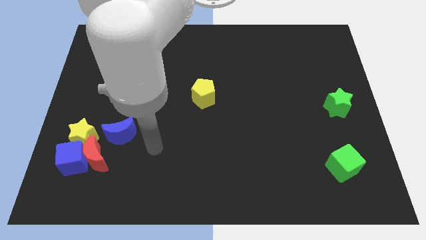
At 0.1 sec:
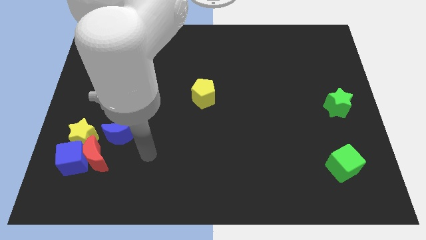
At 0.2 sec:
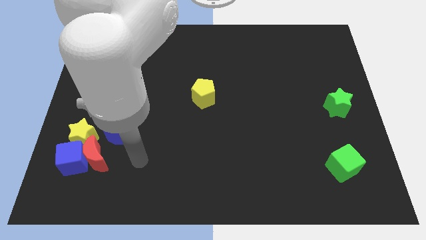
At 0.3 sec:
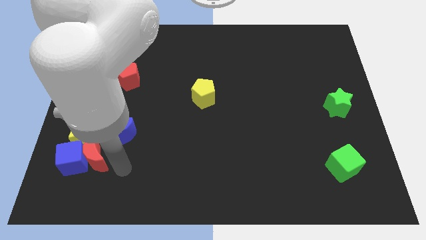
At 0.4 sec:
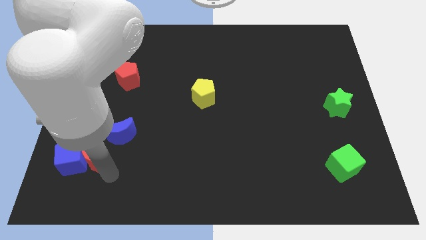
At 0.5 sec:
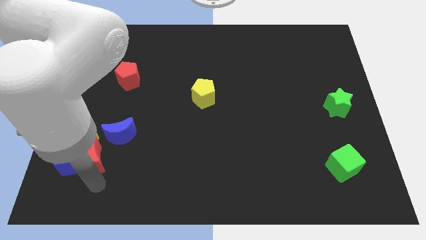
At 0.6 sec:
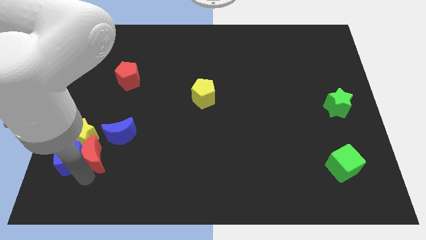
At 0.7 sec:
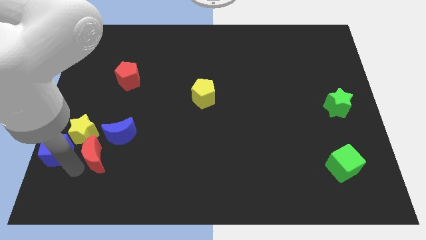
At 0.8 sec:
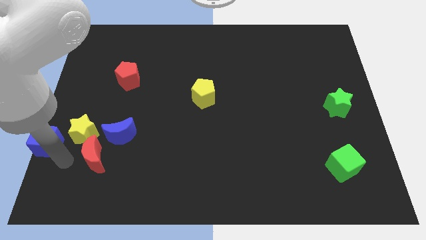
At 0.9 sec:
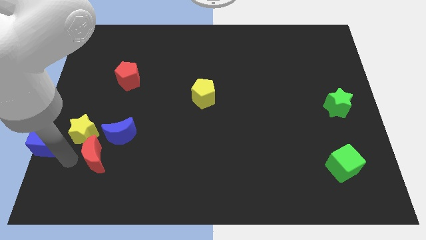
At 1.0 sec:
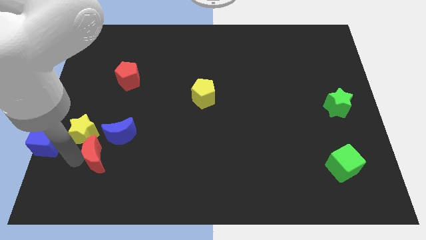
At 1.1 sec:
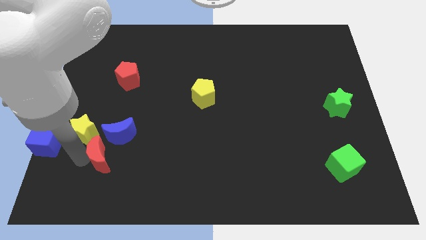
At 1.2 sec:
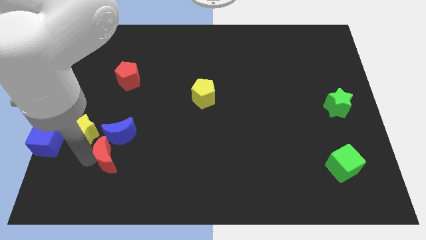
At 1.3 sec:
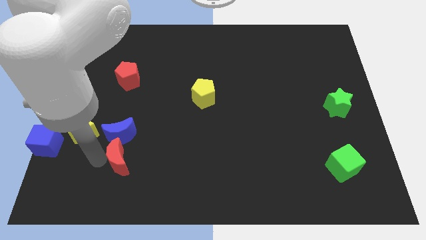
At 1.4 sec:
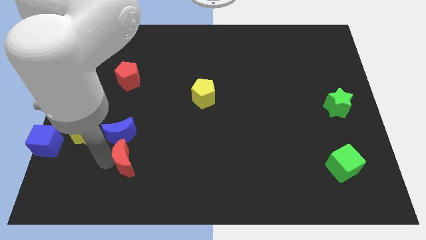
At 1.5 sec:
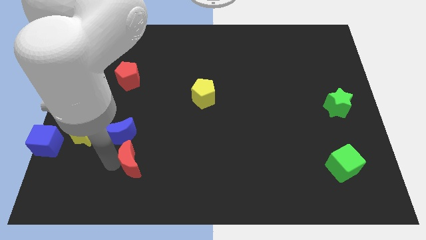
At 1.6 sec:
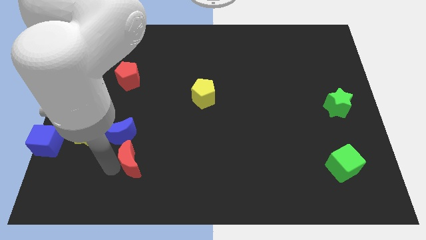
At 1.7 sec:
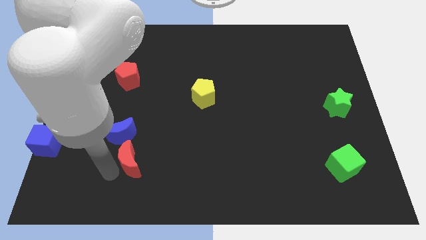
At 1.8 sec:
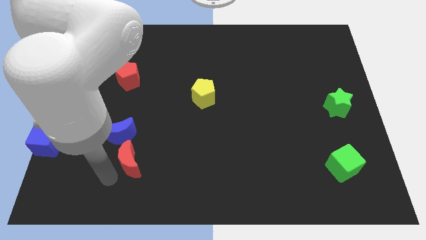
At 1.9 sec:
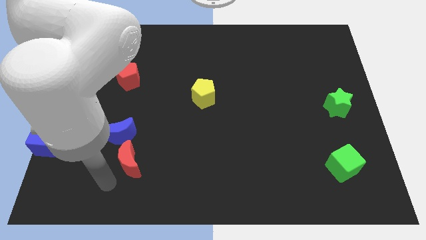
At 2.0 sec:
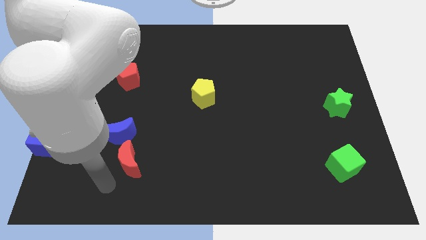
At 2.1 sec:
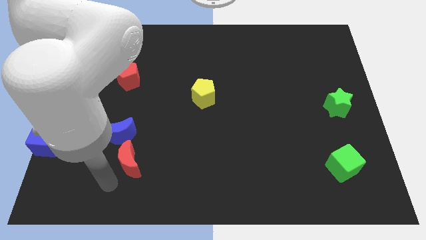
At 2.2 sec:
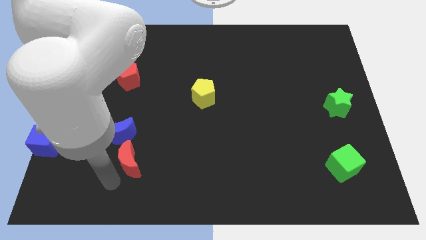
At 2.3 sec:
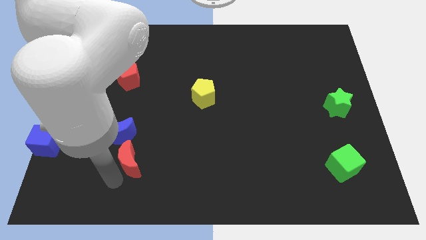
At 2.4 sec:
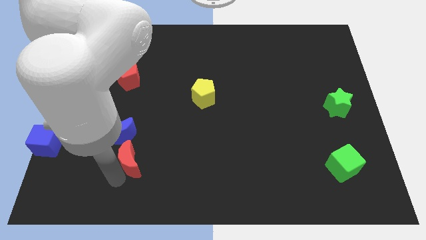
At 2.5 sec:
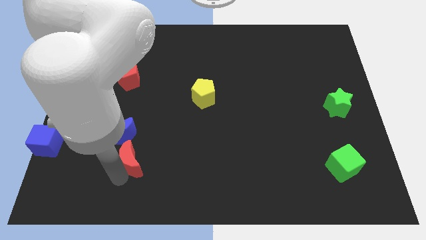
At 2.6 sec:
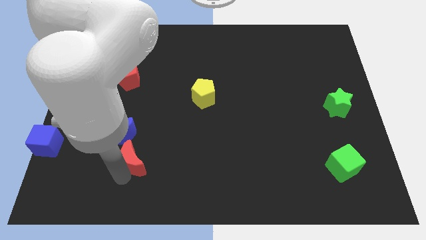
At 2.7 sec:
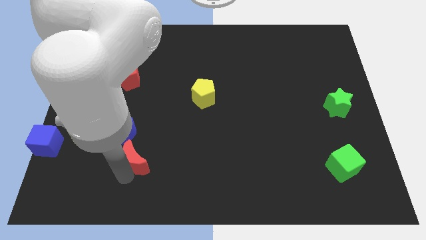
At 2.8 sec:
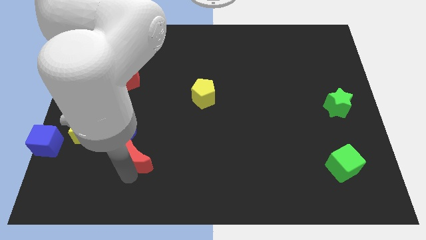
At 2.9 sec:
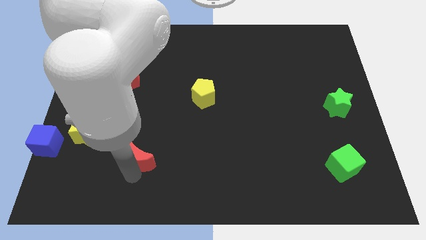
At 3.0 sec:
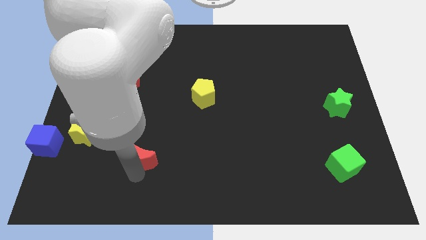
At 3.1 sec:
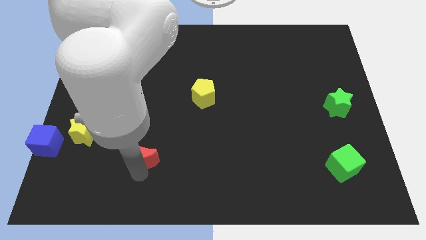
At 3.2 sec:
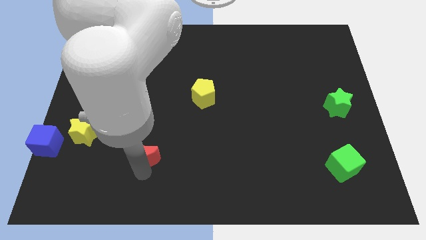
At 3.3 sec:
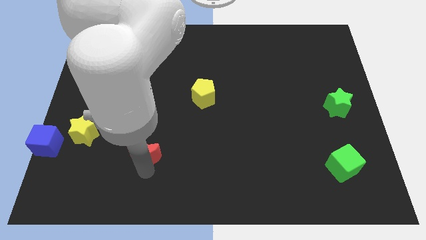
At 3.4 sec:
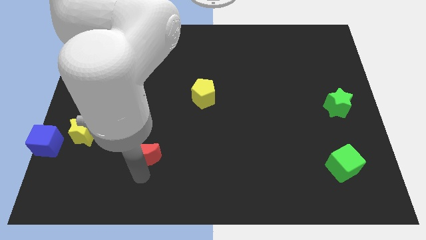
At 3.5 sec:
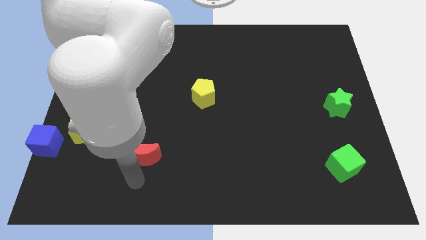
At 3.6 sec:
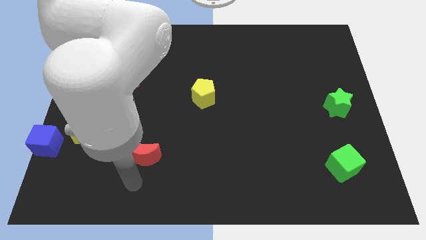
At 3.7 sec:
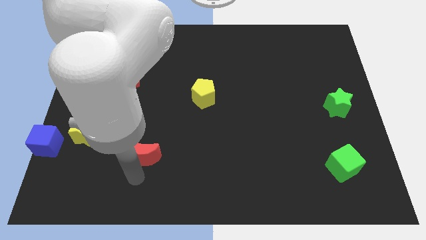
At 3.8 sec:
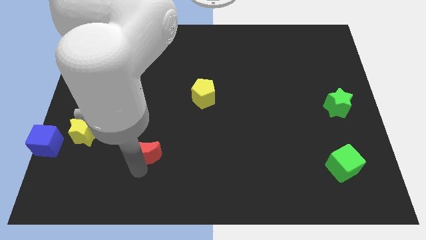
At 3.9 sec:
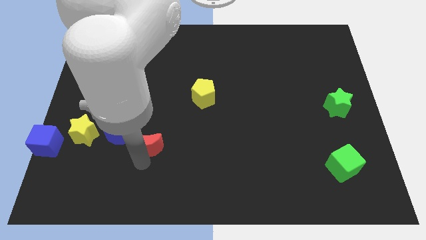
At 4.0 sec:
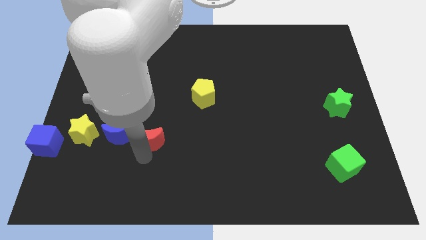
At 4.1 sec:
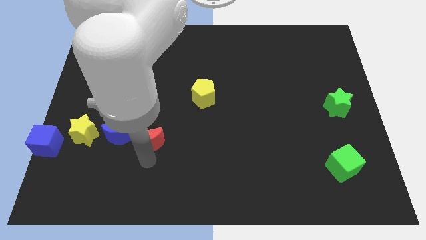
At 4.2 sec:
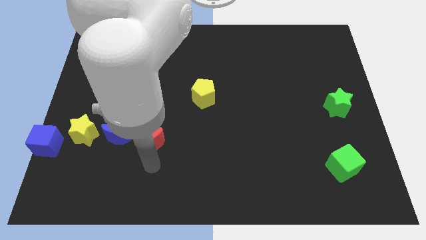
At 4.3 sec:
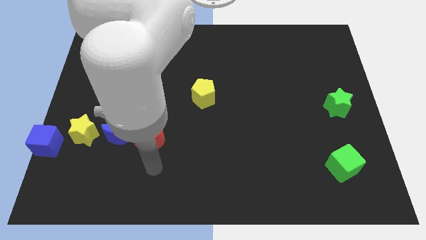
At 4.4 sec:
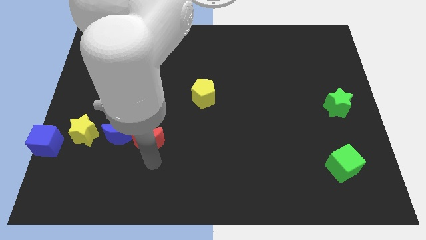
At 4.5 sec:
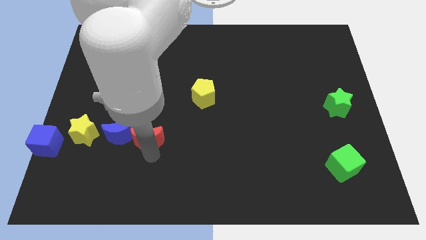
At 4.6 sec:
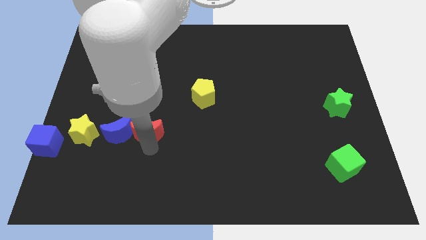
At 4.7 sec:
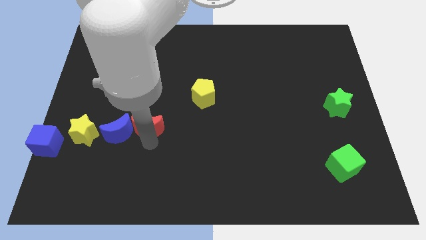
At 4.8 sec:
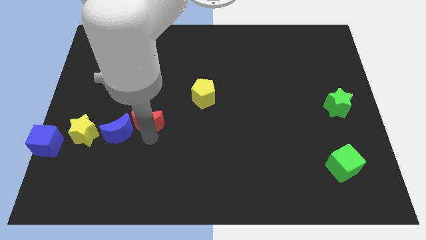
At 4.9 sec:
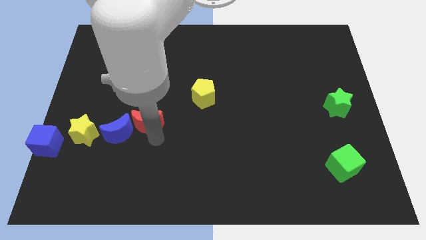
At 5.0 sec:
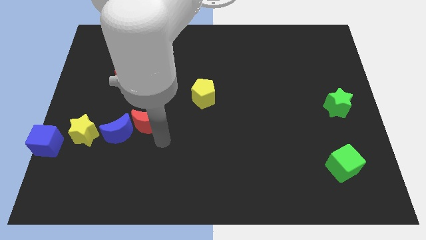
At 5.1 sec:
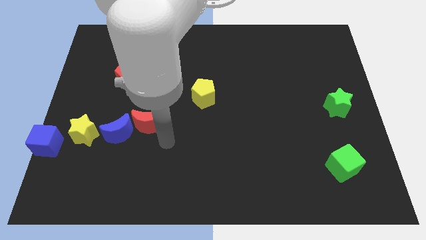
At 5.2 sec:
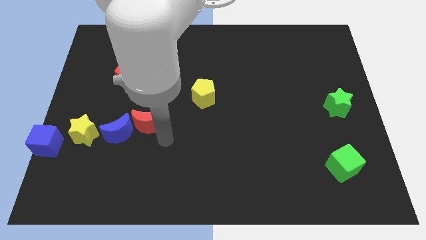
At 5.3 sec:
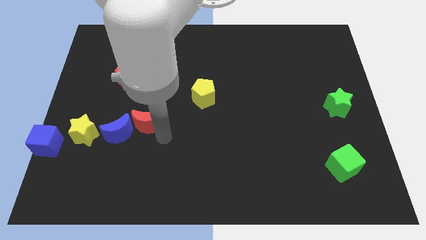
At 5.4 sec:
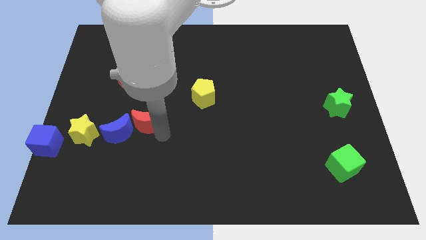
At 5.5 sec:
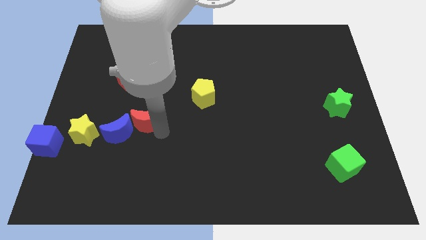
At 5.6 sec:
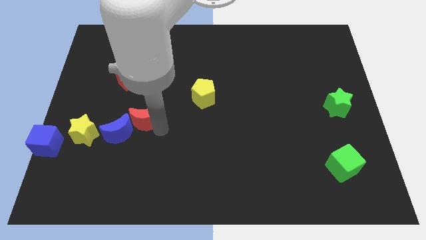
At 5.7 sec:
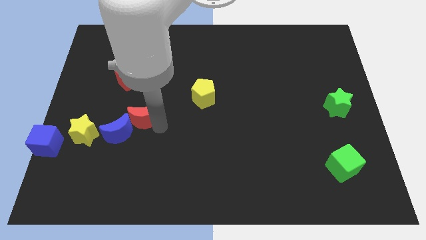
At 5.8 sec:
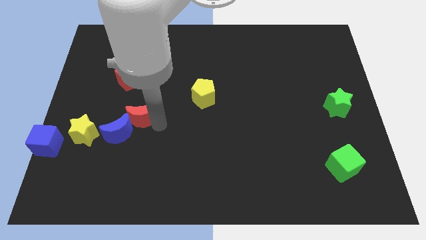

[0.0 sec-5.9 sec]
move the red moon upwards a little bit

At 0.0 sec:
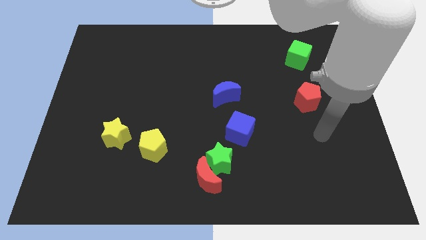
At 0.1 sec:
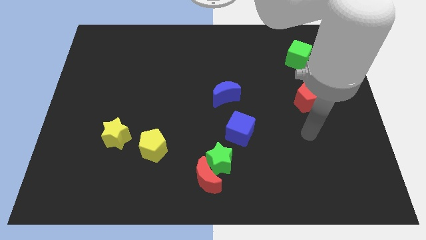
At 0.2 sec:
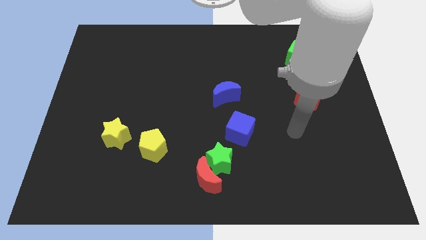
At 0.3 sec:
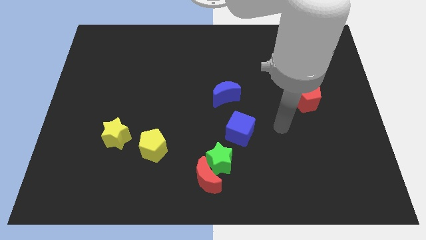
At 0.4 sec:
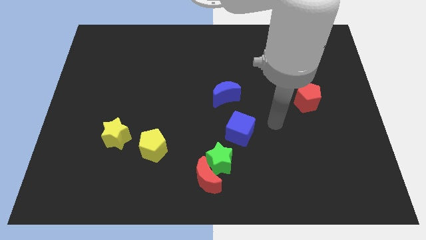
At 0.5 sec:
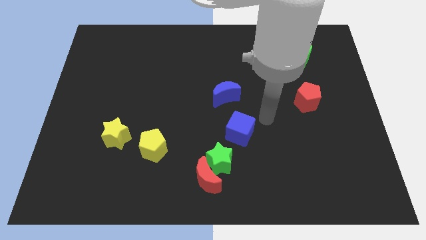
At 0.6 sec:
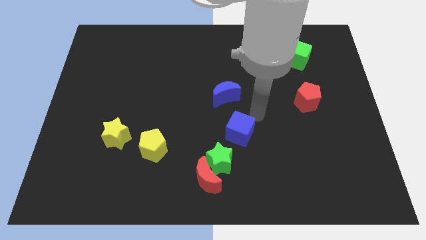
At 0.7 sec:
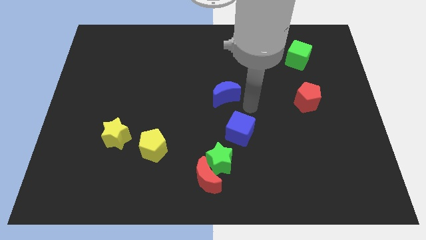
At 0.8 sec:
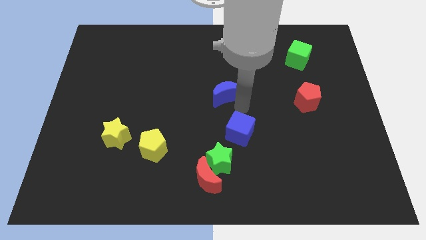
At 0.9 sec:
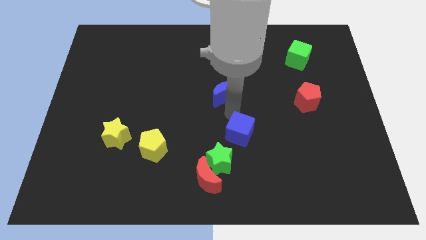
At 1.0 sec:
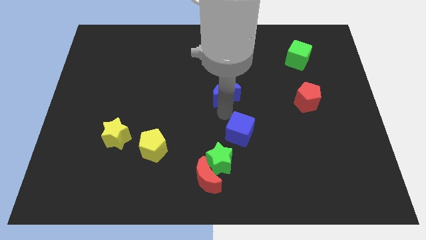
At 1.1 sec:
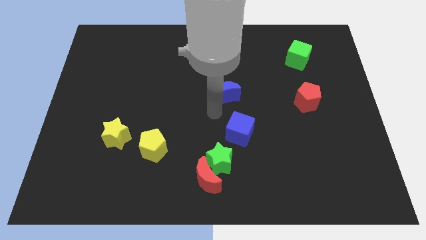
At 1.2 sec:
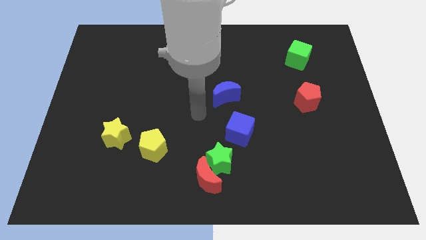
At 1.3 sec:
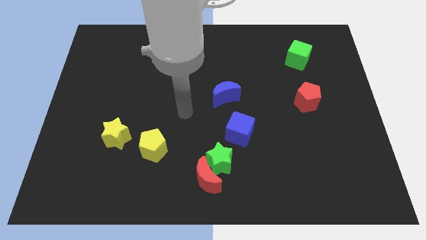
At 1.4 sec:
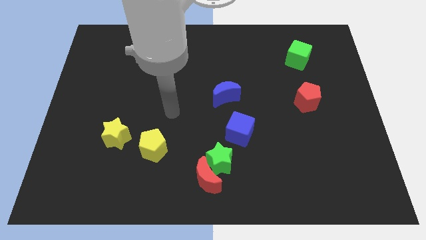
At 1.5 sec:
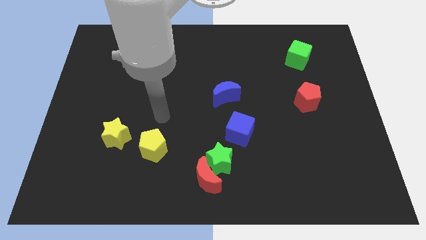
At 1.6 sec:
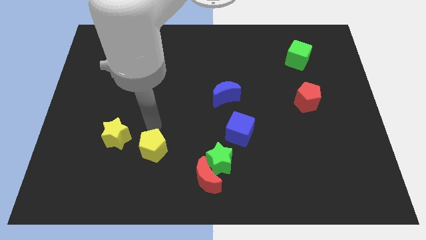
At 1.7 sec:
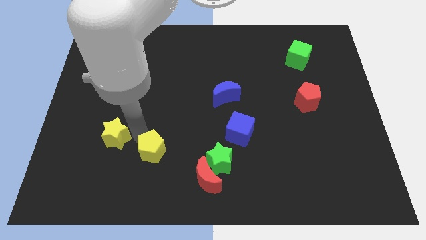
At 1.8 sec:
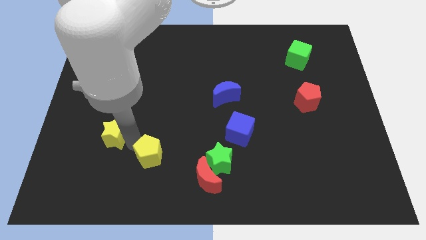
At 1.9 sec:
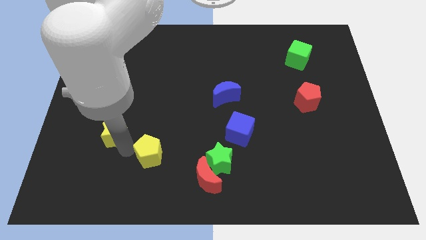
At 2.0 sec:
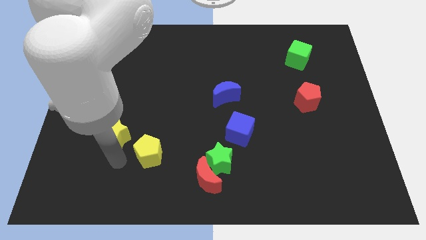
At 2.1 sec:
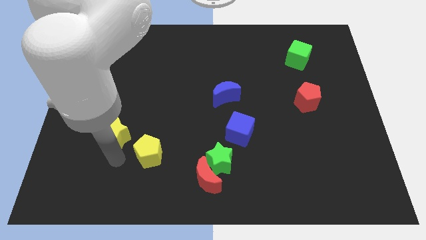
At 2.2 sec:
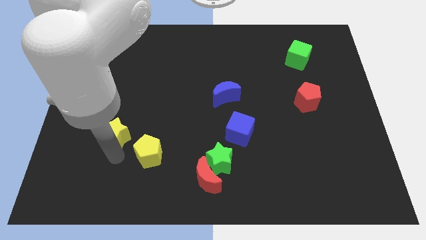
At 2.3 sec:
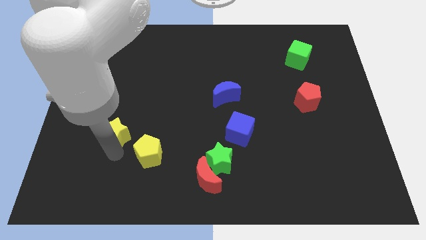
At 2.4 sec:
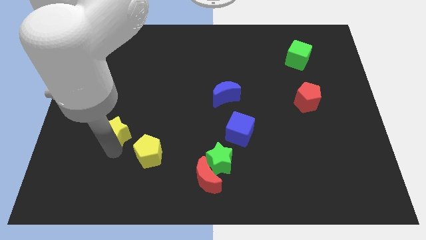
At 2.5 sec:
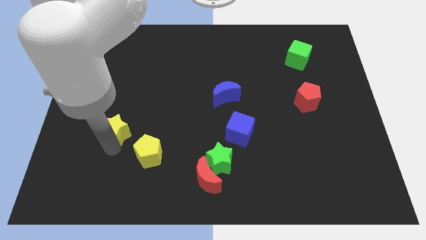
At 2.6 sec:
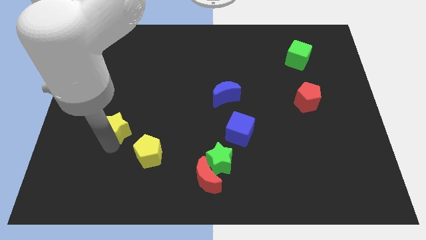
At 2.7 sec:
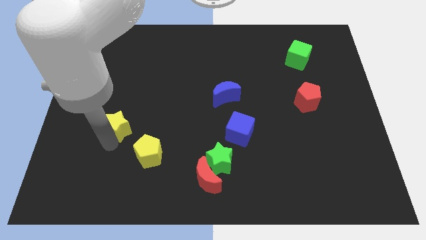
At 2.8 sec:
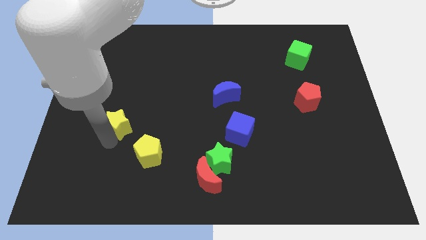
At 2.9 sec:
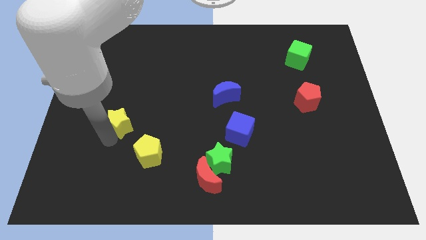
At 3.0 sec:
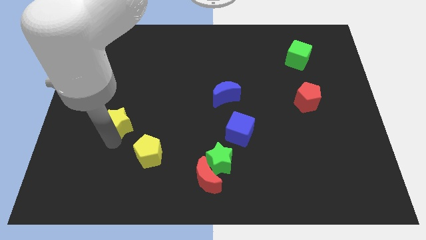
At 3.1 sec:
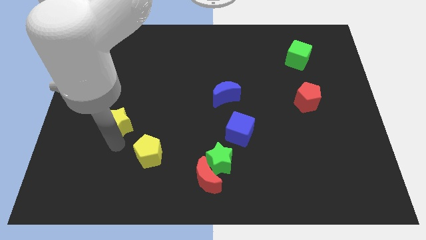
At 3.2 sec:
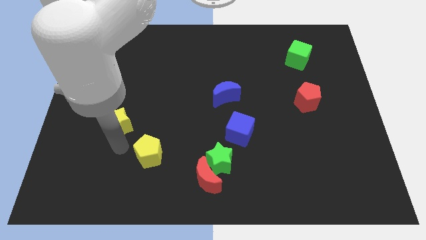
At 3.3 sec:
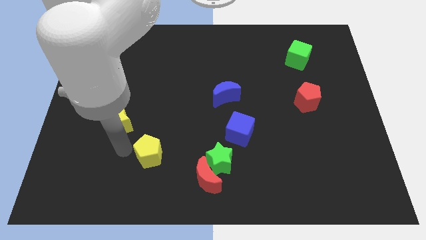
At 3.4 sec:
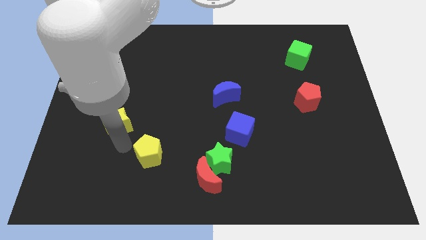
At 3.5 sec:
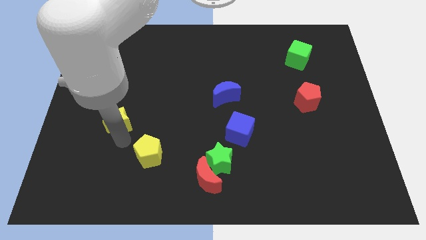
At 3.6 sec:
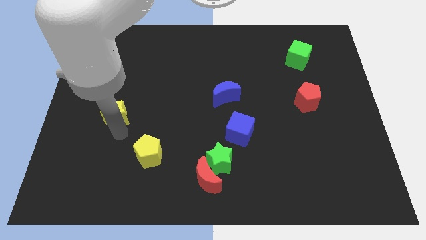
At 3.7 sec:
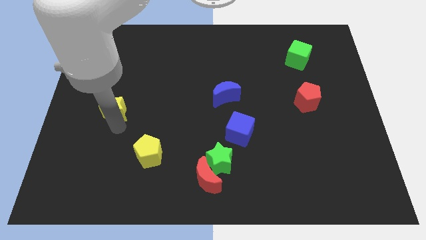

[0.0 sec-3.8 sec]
push the yellow star up somewhat
